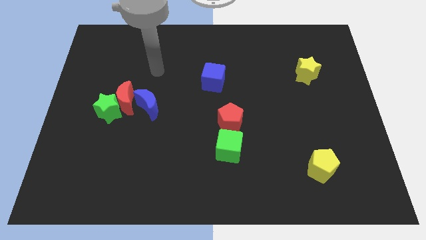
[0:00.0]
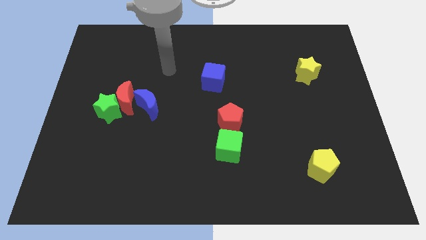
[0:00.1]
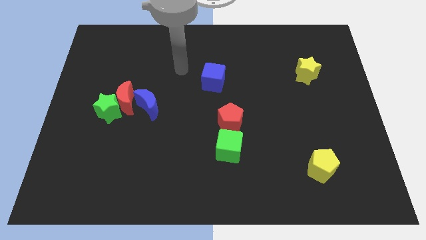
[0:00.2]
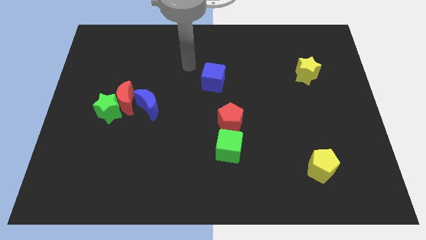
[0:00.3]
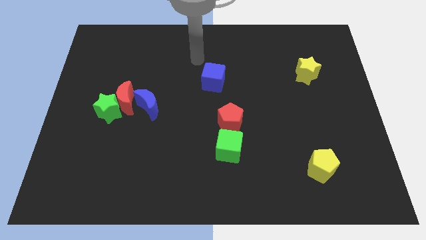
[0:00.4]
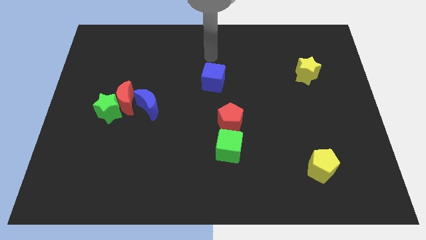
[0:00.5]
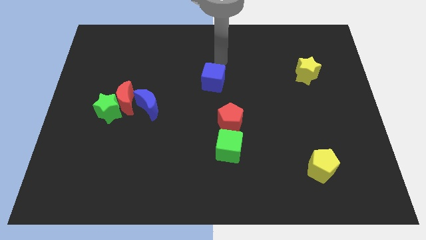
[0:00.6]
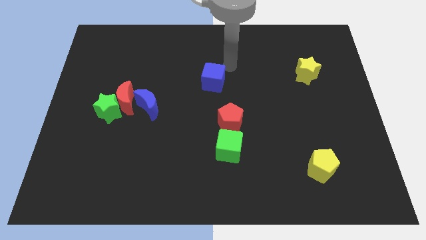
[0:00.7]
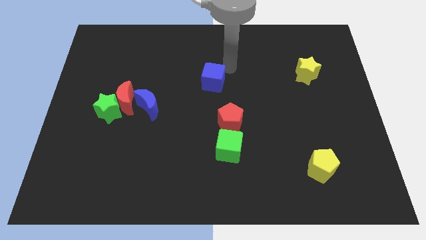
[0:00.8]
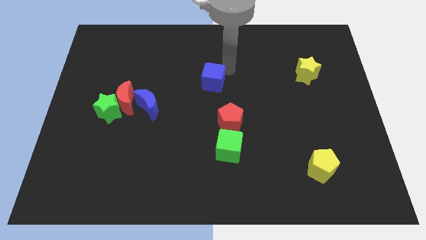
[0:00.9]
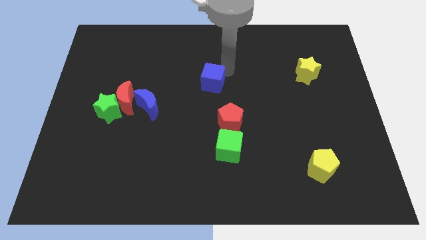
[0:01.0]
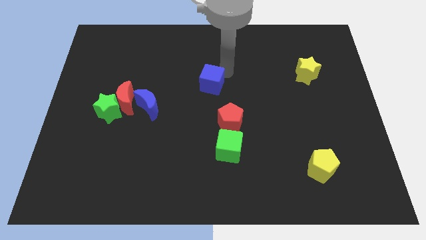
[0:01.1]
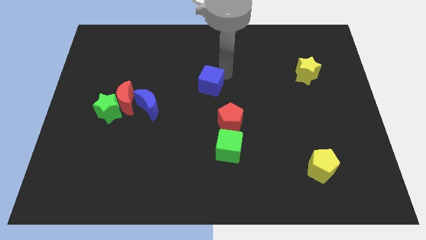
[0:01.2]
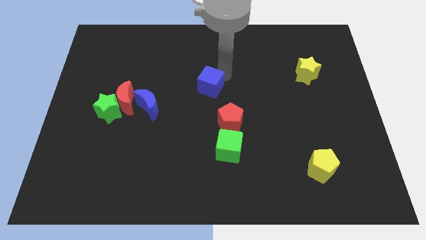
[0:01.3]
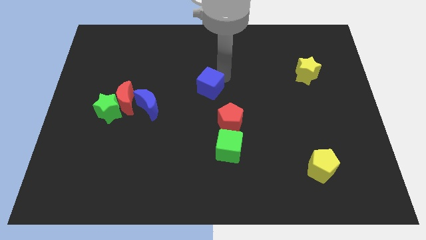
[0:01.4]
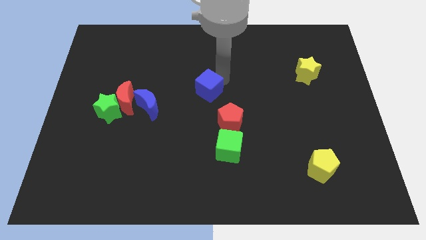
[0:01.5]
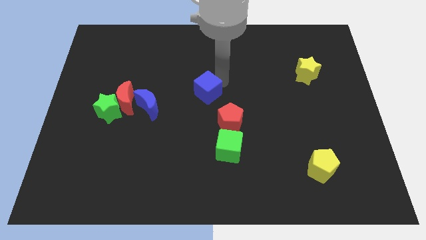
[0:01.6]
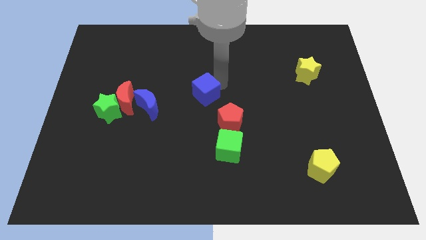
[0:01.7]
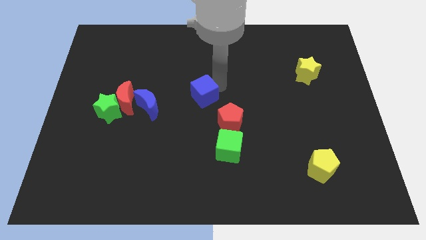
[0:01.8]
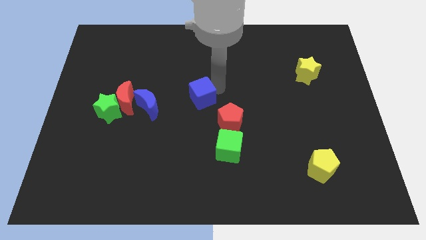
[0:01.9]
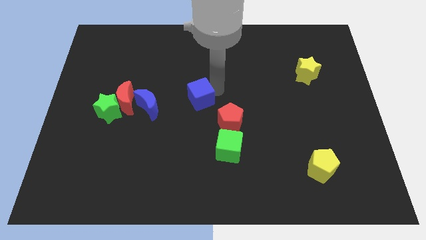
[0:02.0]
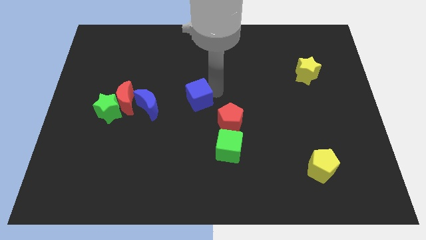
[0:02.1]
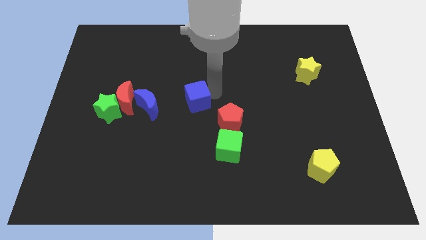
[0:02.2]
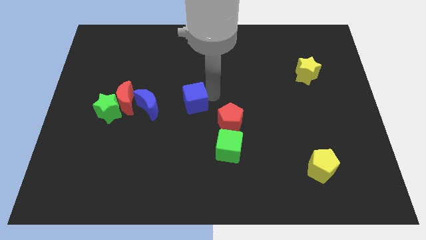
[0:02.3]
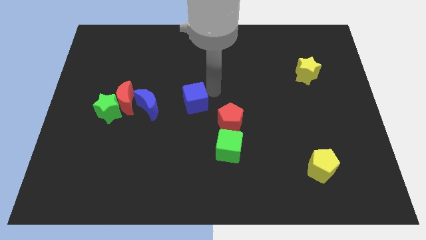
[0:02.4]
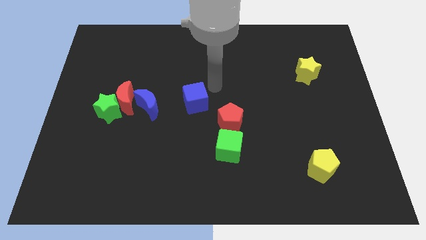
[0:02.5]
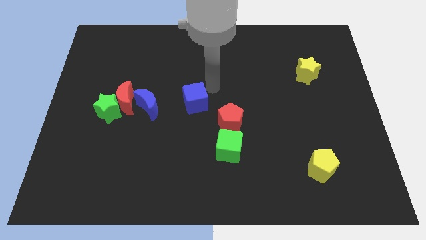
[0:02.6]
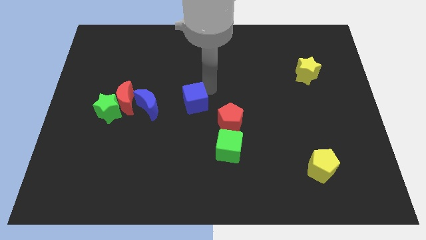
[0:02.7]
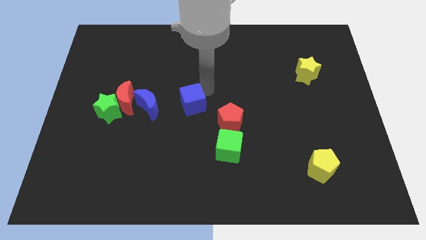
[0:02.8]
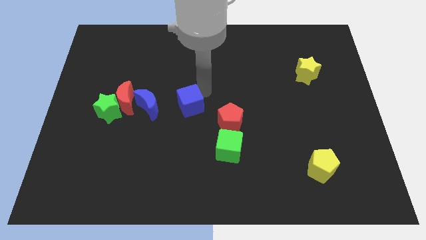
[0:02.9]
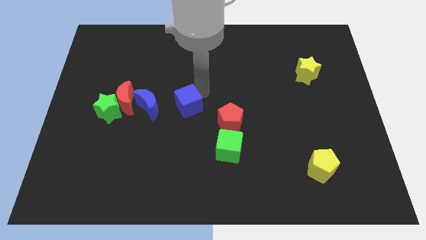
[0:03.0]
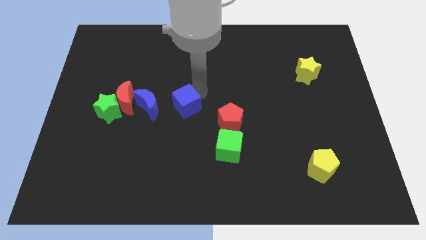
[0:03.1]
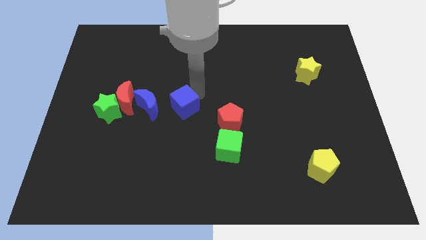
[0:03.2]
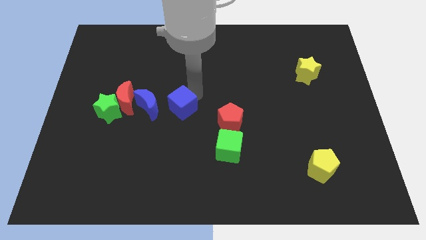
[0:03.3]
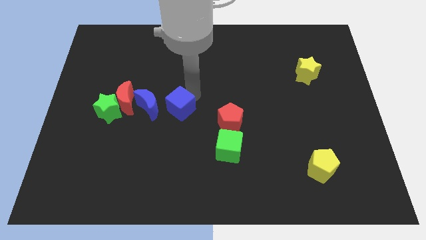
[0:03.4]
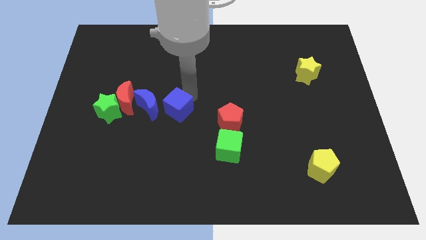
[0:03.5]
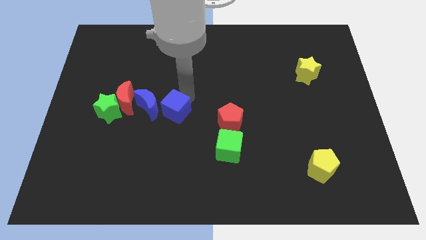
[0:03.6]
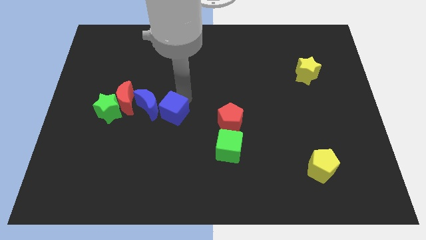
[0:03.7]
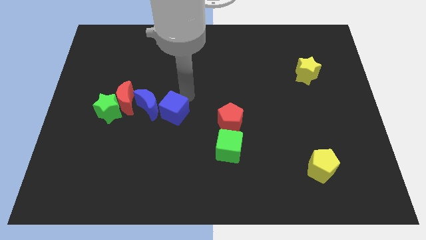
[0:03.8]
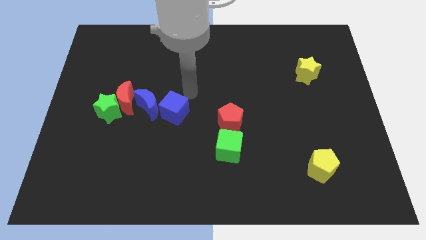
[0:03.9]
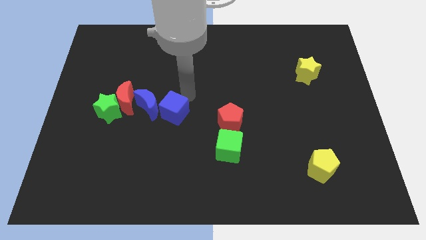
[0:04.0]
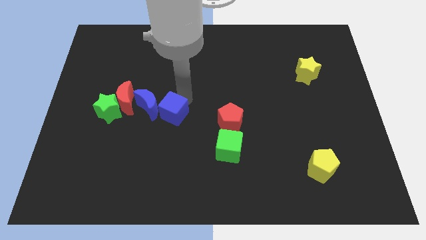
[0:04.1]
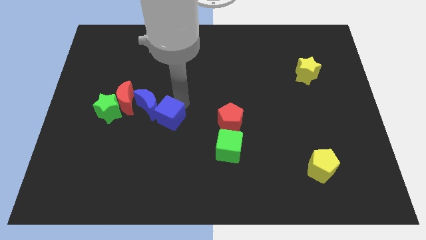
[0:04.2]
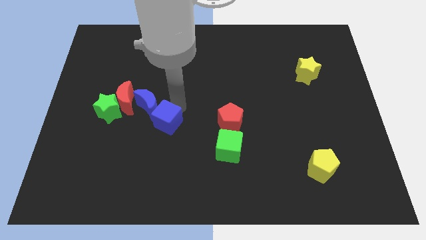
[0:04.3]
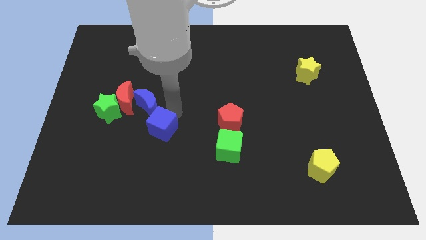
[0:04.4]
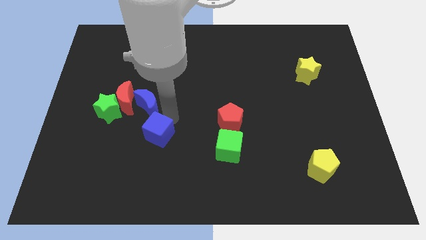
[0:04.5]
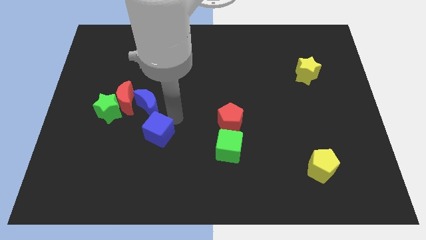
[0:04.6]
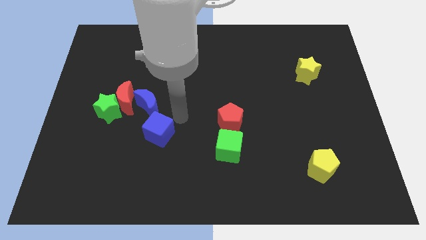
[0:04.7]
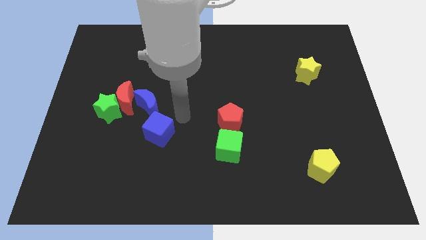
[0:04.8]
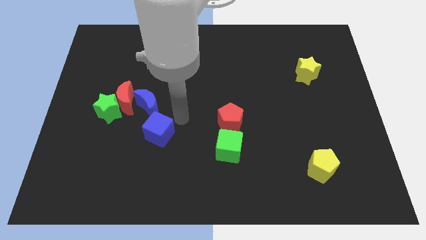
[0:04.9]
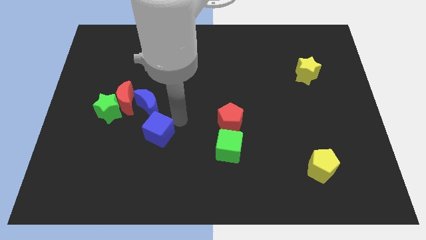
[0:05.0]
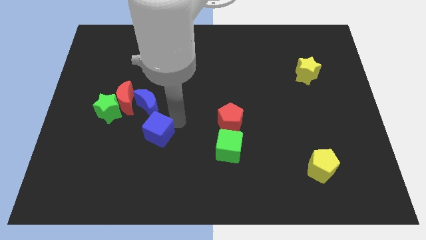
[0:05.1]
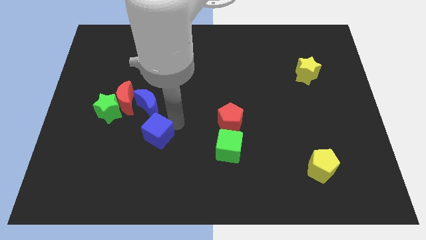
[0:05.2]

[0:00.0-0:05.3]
move the blue cube diagonally down and to the left

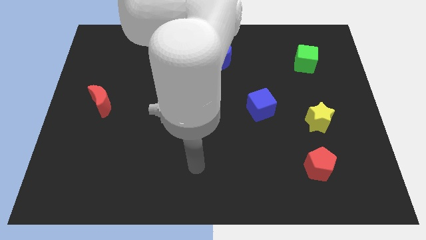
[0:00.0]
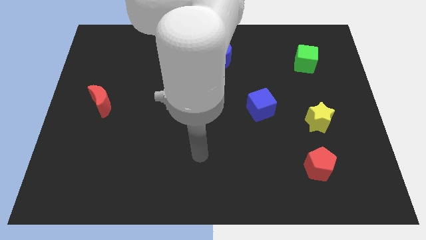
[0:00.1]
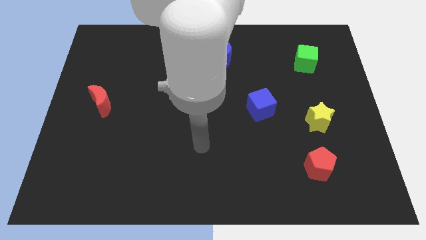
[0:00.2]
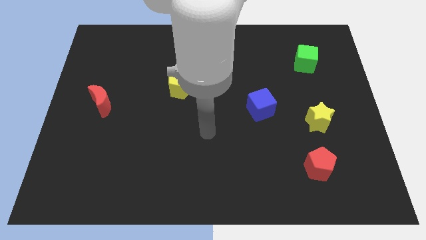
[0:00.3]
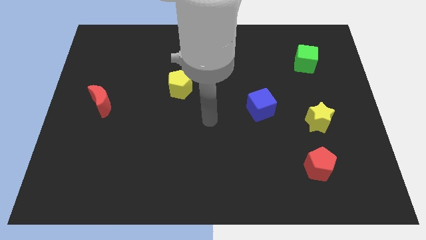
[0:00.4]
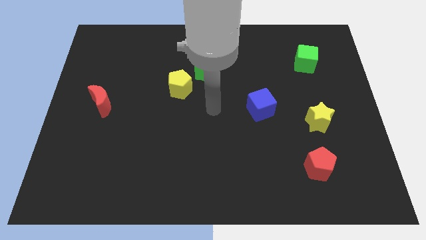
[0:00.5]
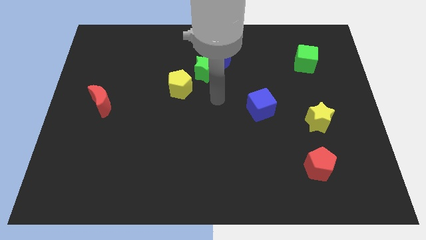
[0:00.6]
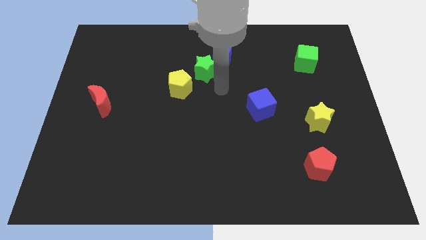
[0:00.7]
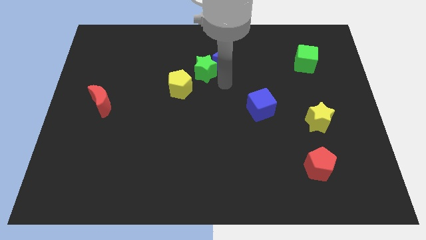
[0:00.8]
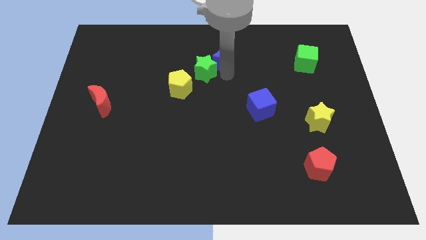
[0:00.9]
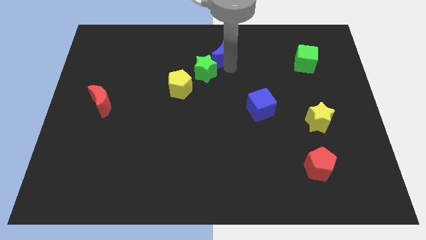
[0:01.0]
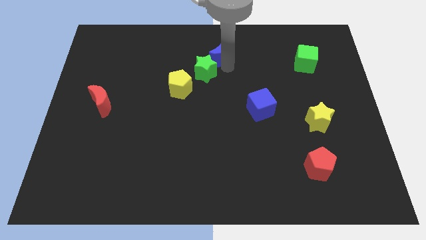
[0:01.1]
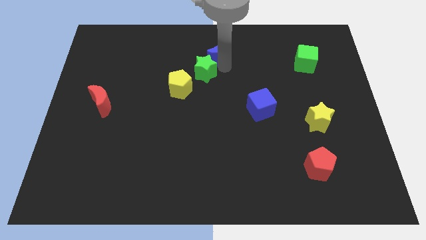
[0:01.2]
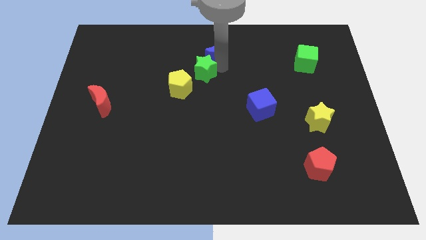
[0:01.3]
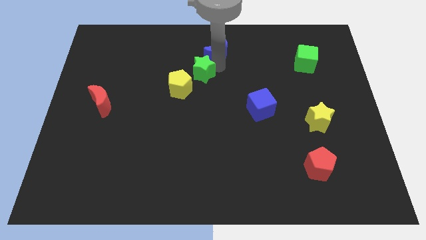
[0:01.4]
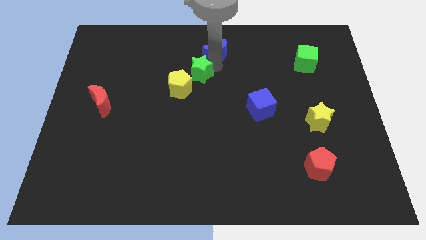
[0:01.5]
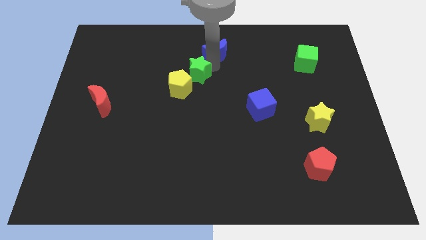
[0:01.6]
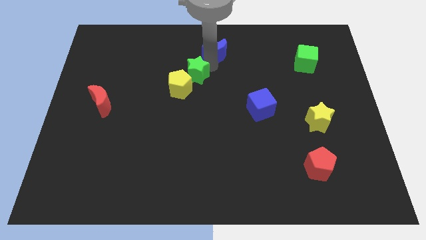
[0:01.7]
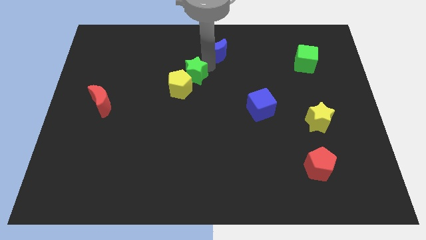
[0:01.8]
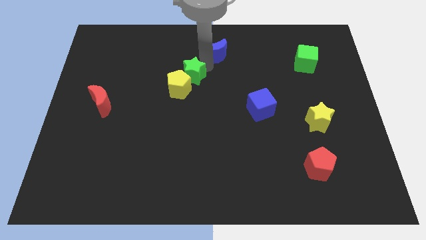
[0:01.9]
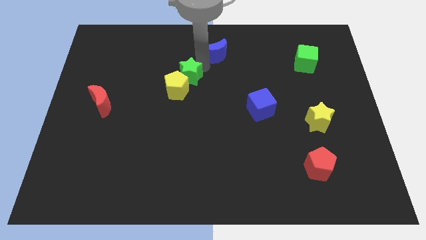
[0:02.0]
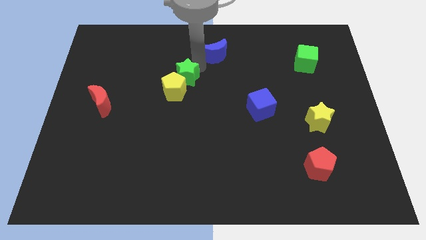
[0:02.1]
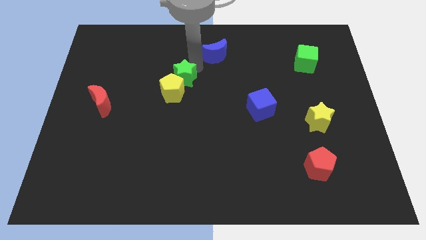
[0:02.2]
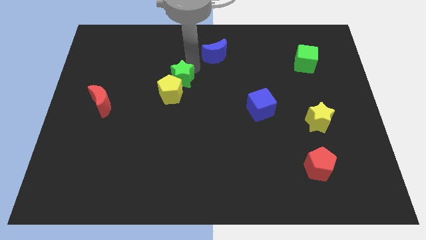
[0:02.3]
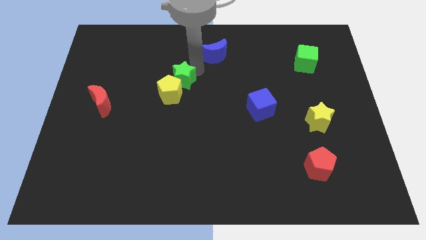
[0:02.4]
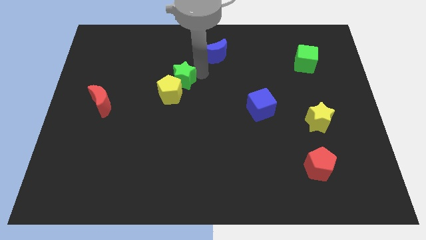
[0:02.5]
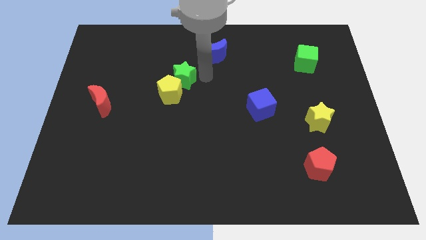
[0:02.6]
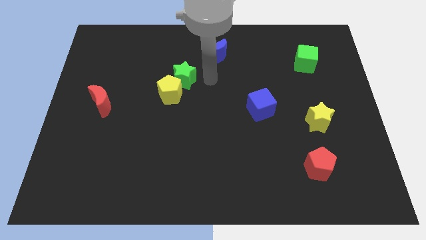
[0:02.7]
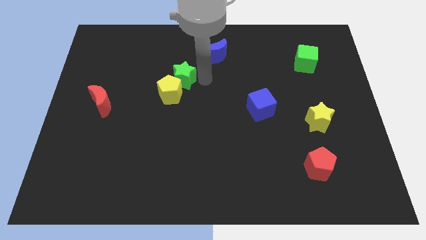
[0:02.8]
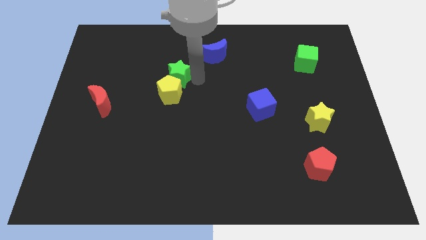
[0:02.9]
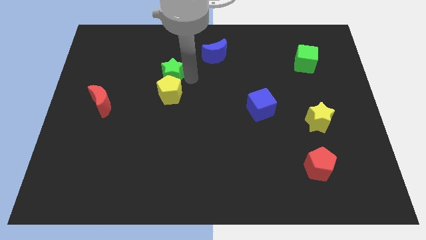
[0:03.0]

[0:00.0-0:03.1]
move the green star somewhat to the left
